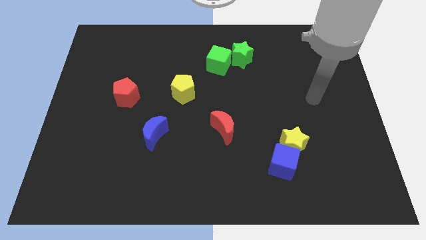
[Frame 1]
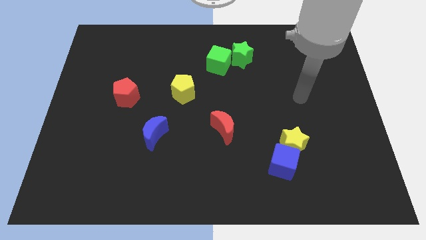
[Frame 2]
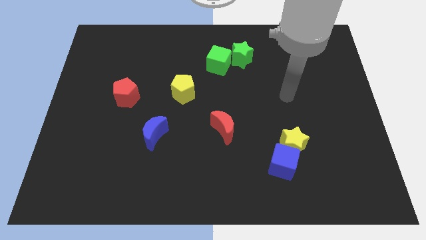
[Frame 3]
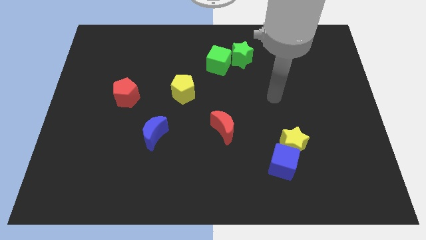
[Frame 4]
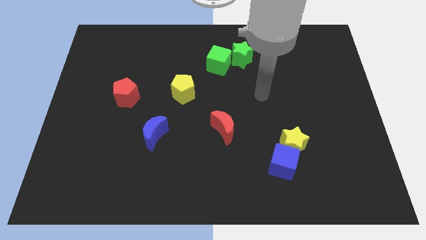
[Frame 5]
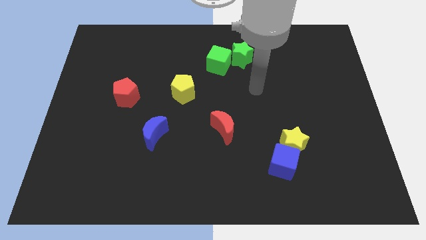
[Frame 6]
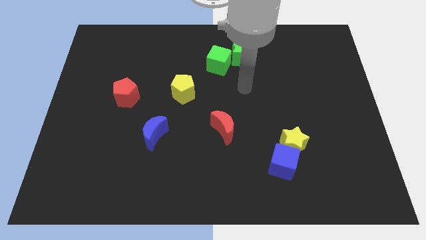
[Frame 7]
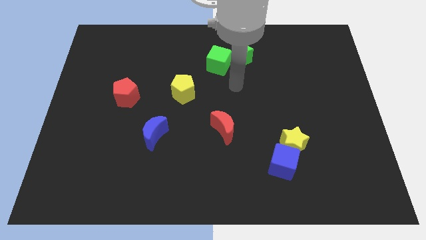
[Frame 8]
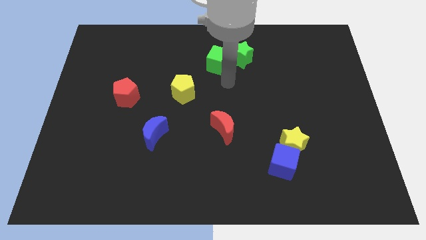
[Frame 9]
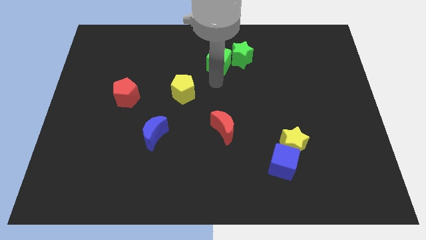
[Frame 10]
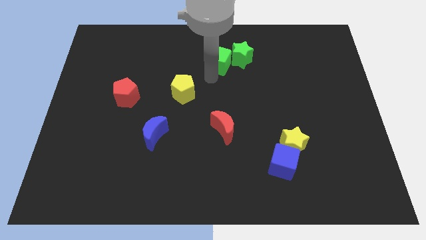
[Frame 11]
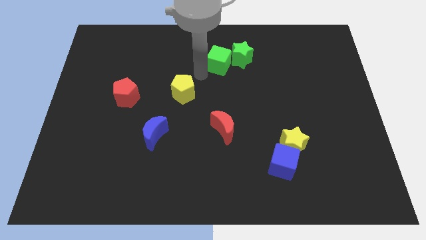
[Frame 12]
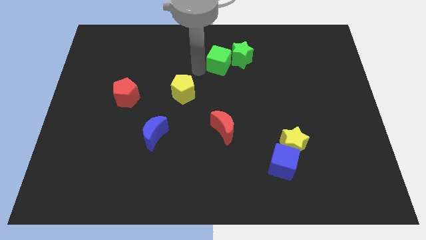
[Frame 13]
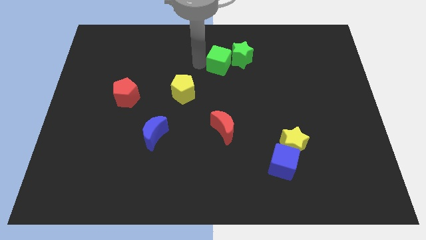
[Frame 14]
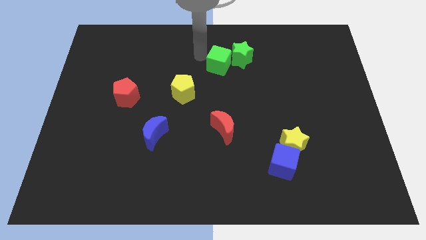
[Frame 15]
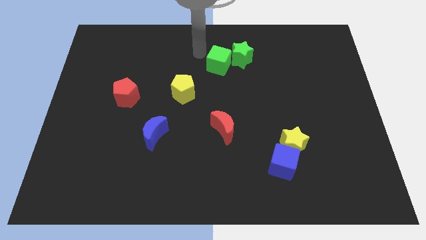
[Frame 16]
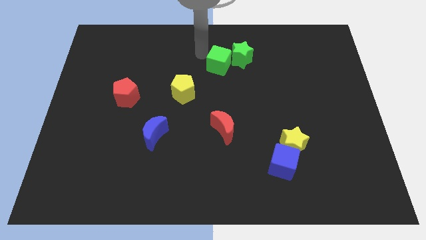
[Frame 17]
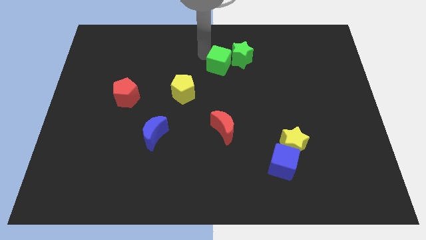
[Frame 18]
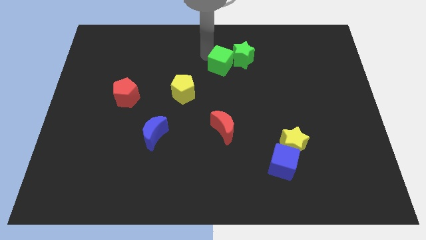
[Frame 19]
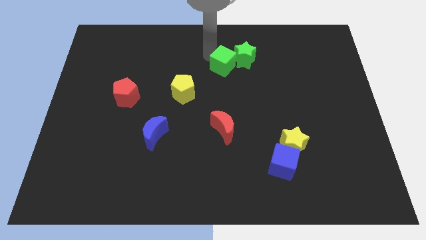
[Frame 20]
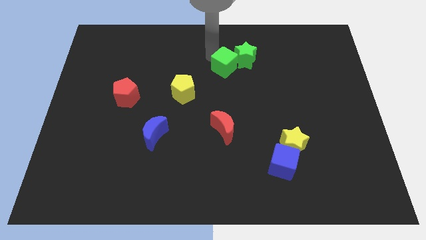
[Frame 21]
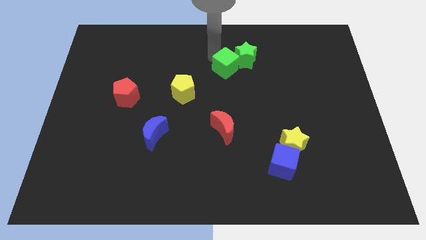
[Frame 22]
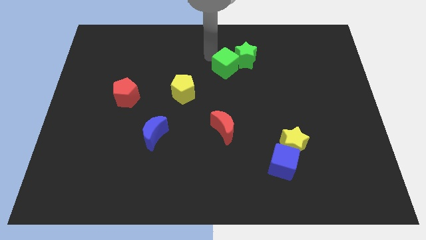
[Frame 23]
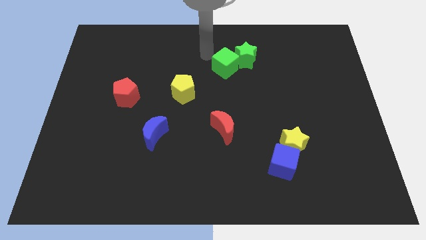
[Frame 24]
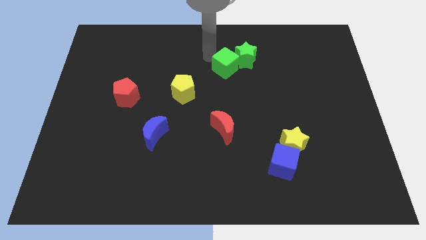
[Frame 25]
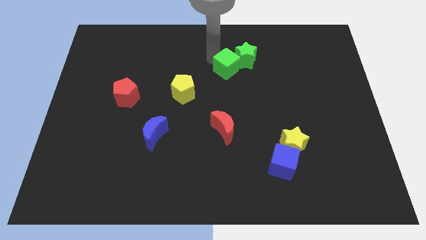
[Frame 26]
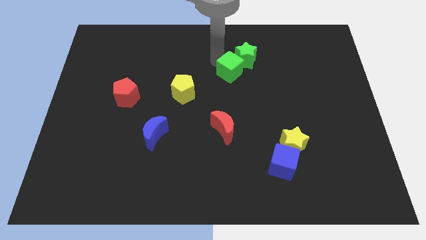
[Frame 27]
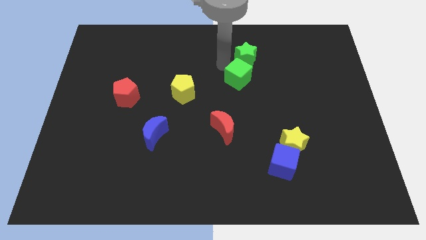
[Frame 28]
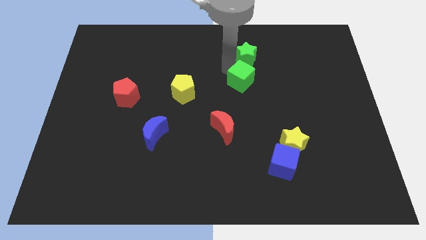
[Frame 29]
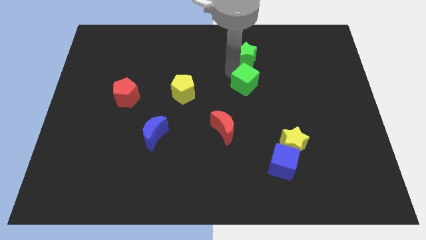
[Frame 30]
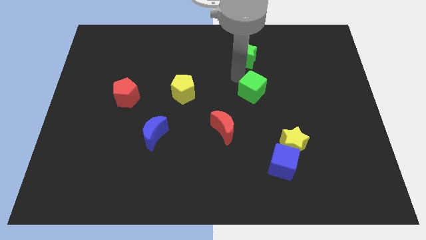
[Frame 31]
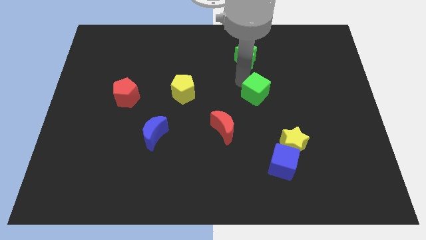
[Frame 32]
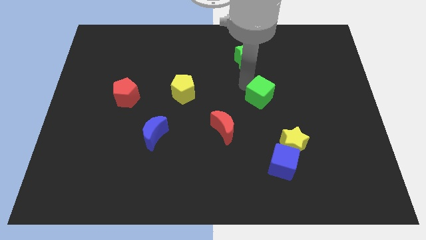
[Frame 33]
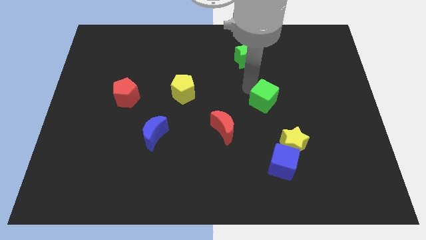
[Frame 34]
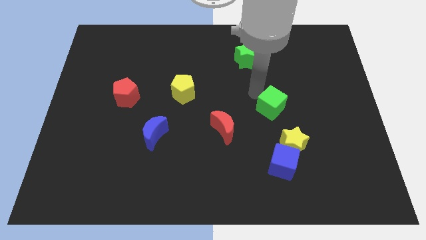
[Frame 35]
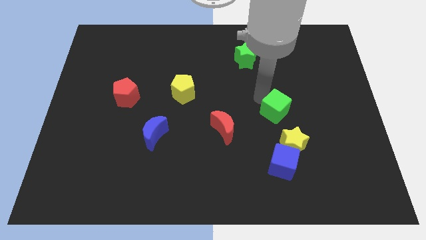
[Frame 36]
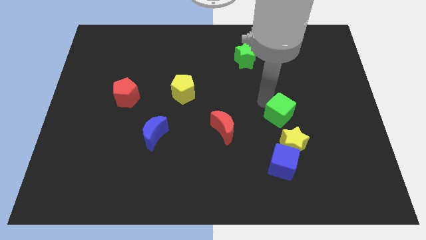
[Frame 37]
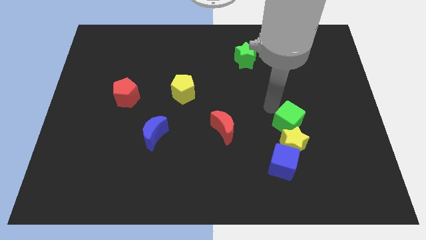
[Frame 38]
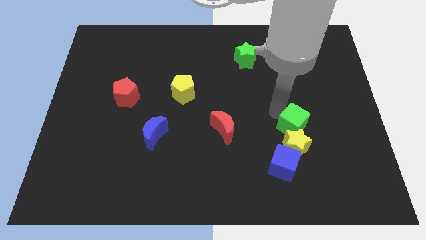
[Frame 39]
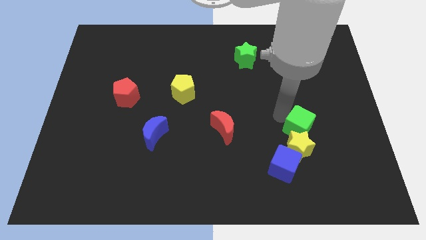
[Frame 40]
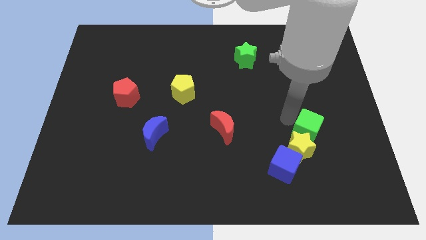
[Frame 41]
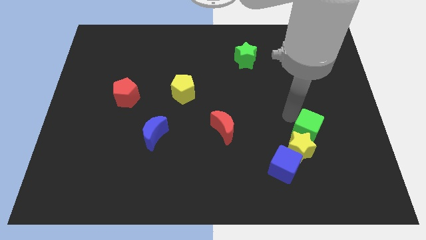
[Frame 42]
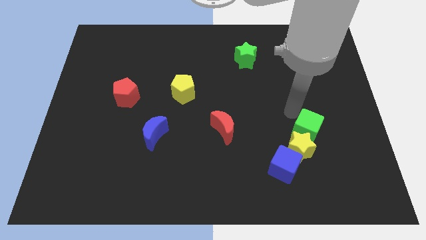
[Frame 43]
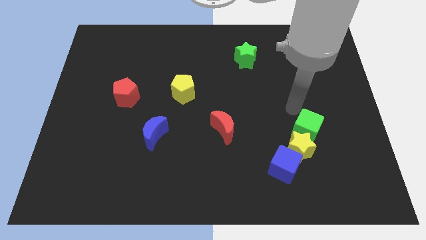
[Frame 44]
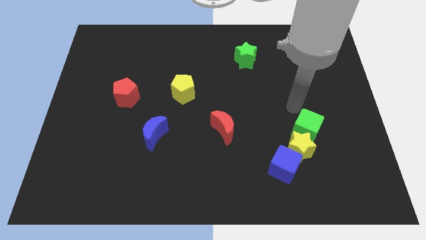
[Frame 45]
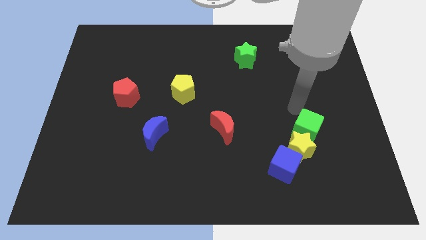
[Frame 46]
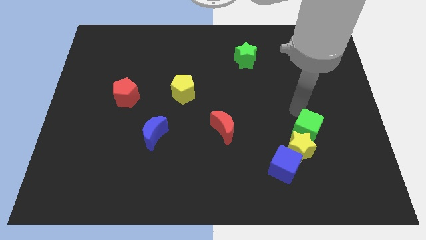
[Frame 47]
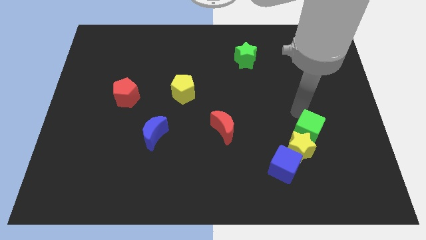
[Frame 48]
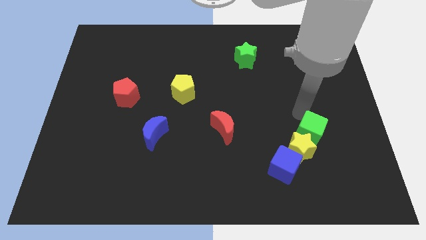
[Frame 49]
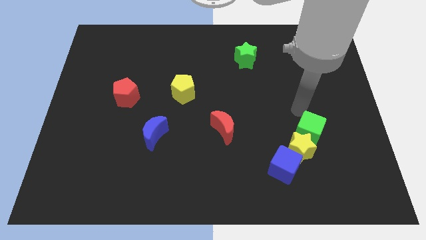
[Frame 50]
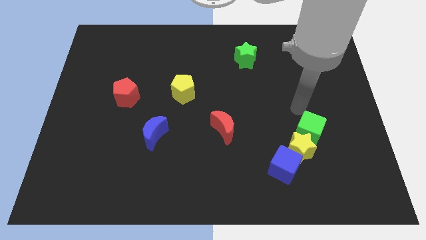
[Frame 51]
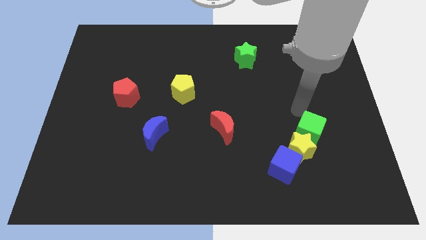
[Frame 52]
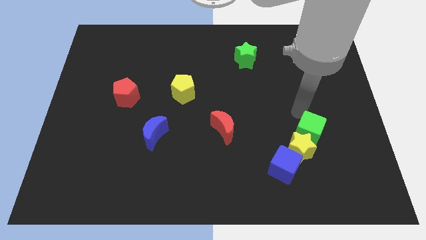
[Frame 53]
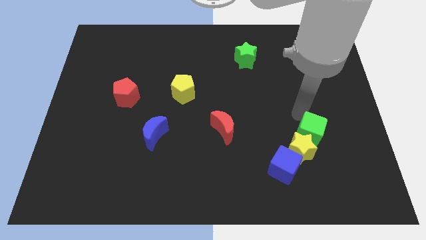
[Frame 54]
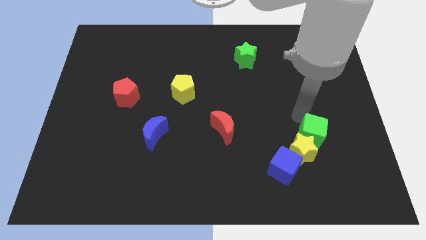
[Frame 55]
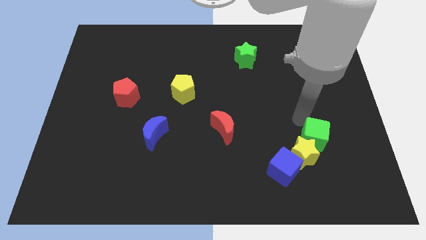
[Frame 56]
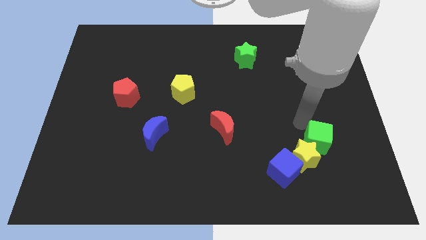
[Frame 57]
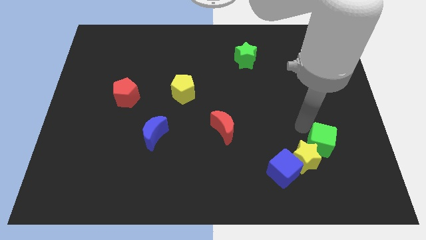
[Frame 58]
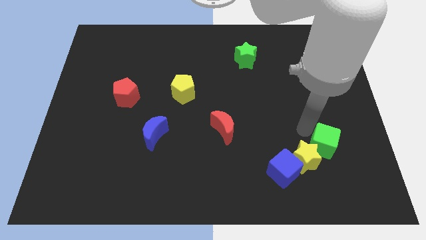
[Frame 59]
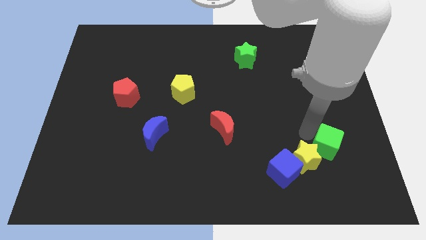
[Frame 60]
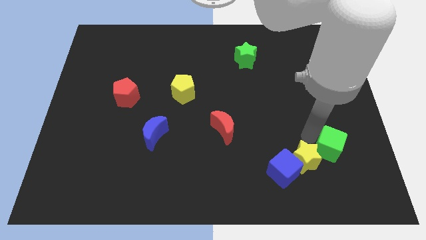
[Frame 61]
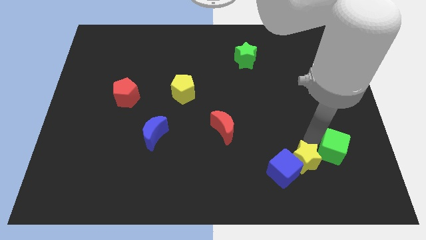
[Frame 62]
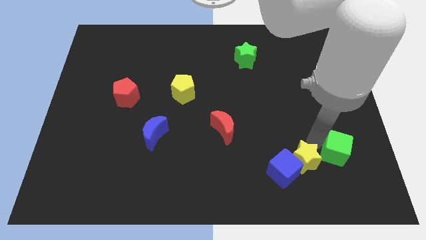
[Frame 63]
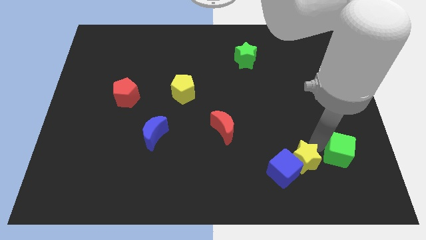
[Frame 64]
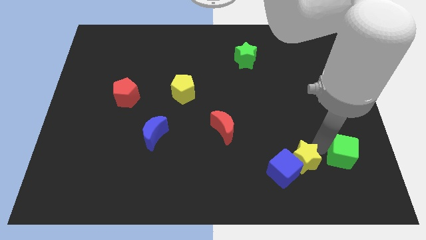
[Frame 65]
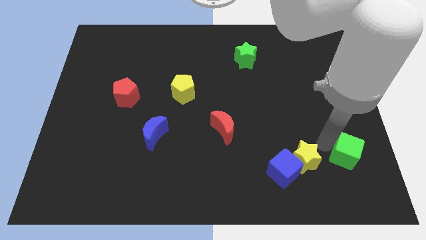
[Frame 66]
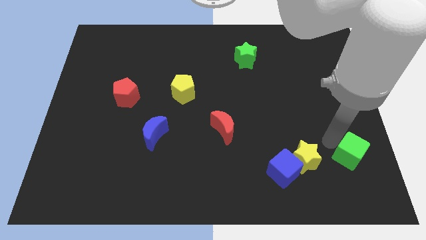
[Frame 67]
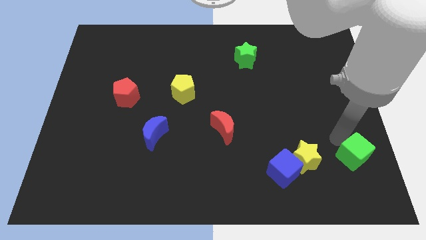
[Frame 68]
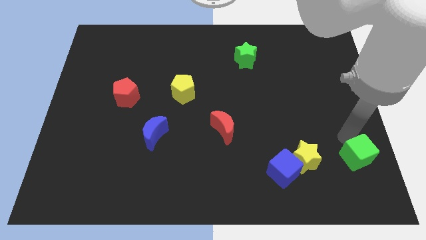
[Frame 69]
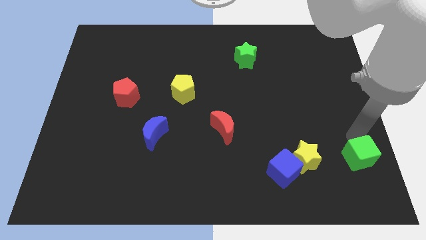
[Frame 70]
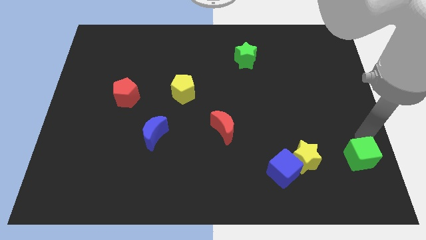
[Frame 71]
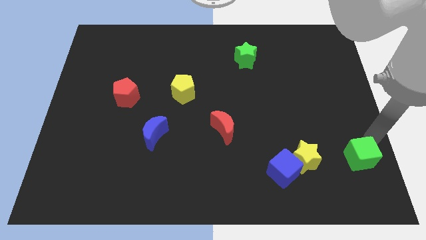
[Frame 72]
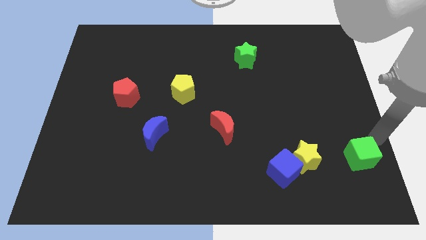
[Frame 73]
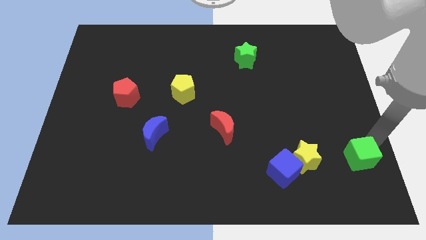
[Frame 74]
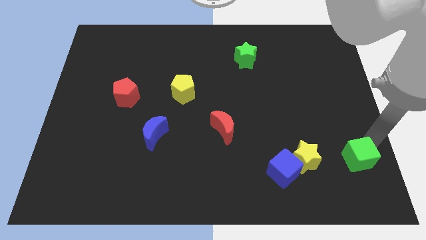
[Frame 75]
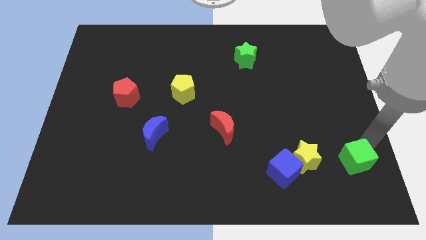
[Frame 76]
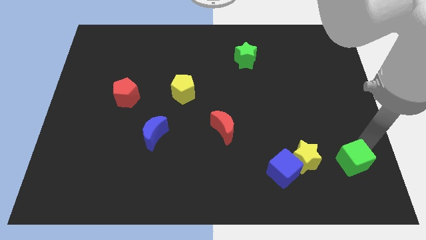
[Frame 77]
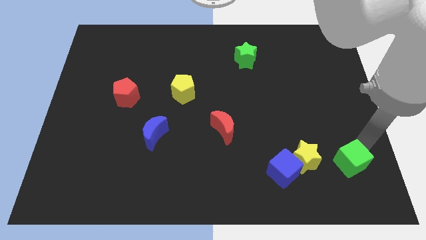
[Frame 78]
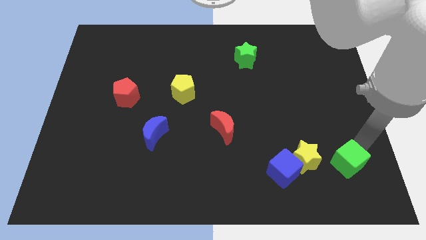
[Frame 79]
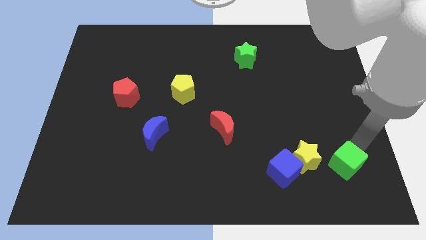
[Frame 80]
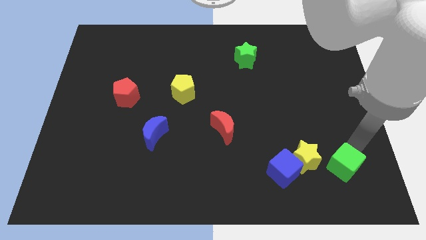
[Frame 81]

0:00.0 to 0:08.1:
put the green cube diagonally down and to the right of the yellow star
